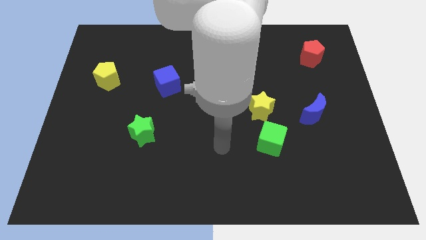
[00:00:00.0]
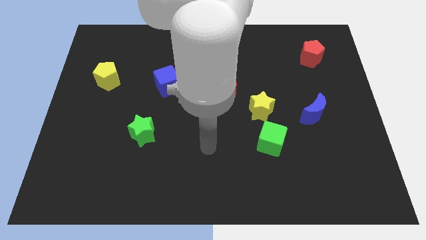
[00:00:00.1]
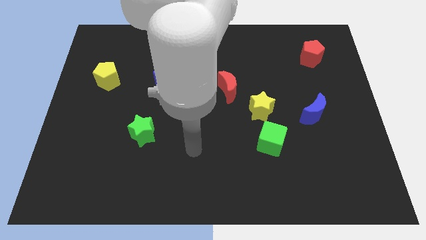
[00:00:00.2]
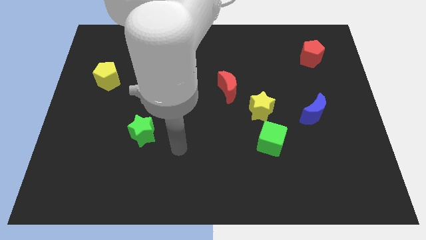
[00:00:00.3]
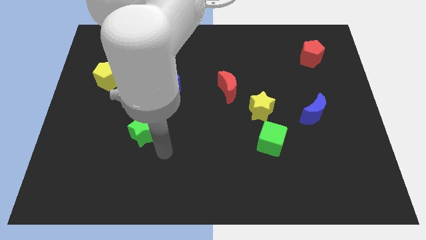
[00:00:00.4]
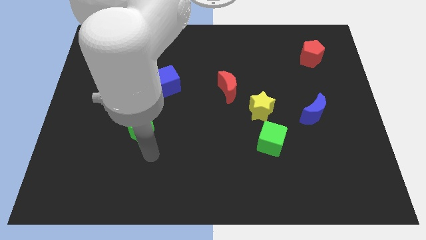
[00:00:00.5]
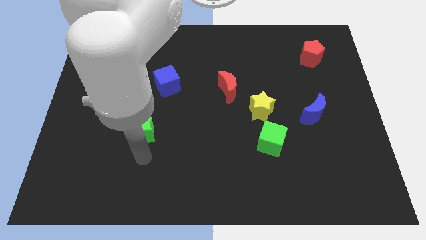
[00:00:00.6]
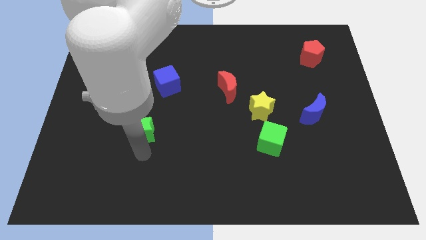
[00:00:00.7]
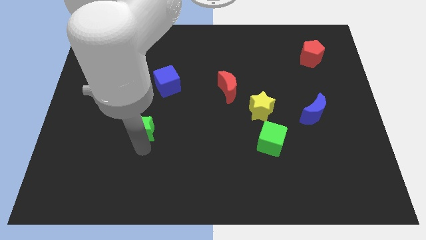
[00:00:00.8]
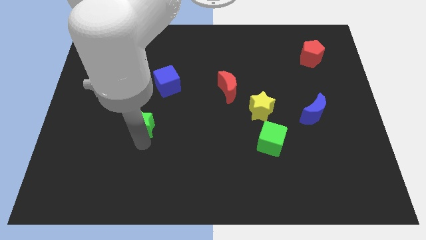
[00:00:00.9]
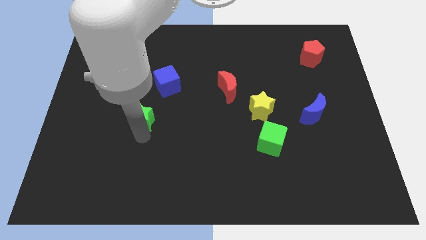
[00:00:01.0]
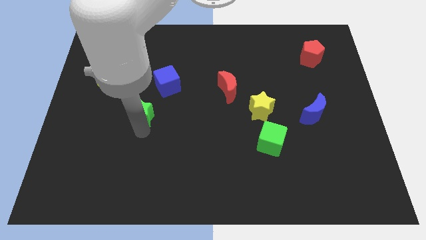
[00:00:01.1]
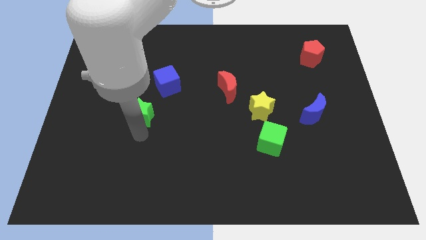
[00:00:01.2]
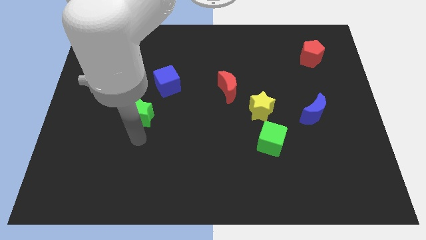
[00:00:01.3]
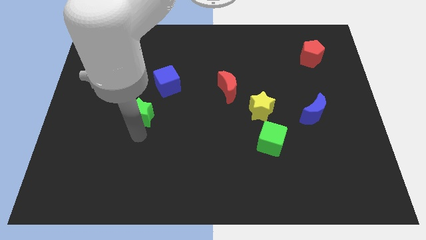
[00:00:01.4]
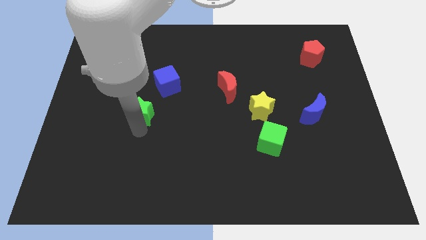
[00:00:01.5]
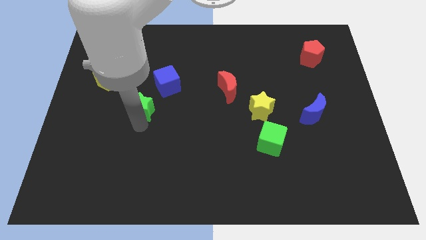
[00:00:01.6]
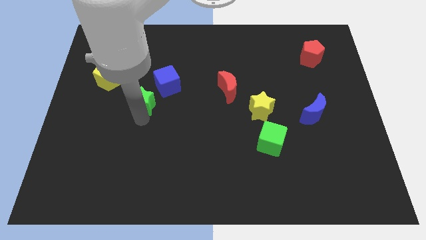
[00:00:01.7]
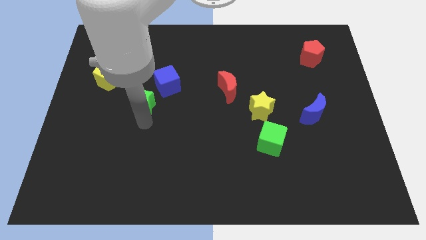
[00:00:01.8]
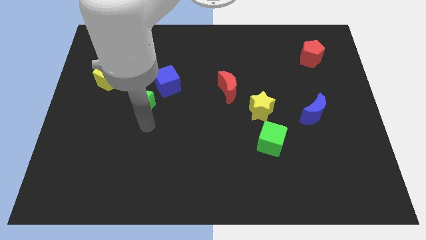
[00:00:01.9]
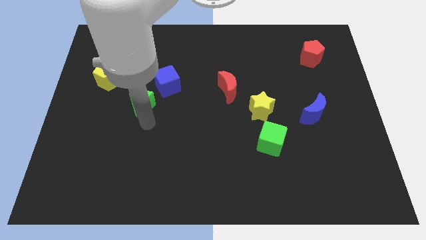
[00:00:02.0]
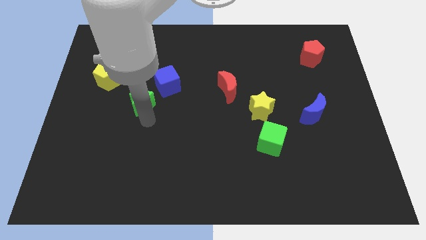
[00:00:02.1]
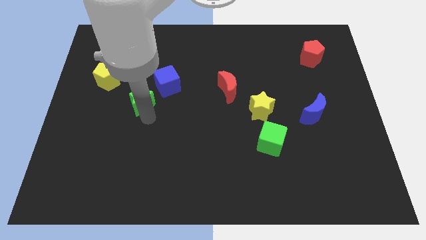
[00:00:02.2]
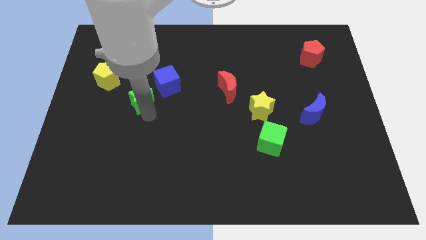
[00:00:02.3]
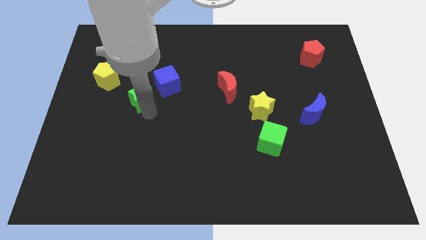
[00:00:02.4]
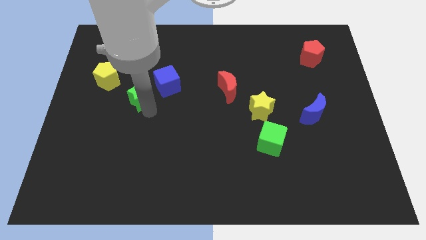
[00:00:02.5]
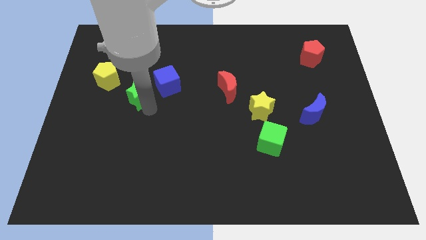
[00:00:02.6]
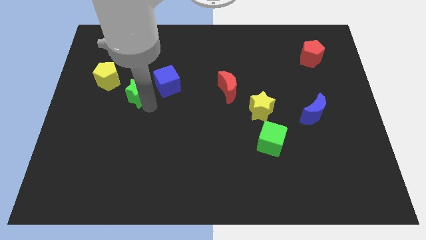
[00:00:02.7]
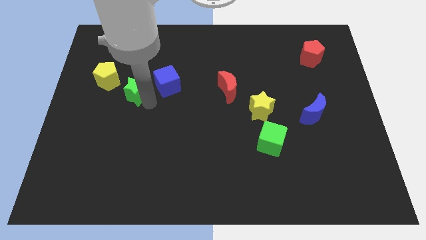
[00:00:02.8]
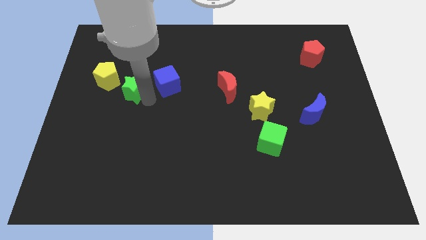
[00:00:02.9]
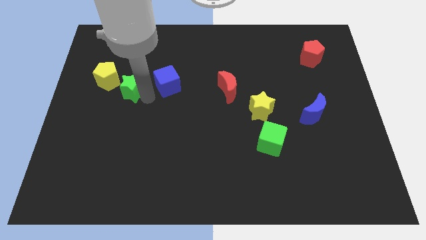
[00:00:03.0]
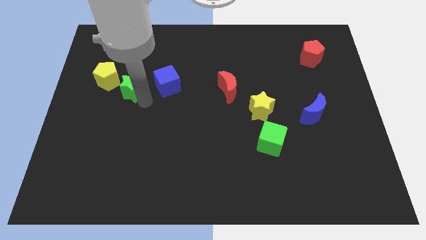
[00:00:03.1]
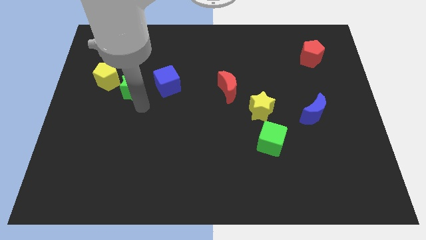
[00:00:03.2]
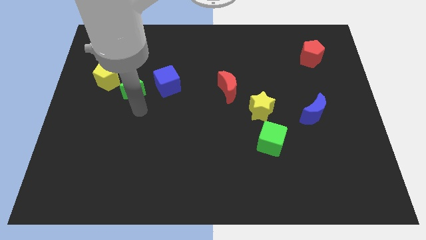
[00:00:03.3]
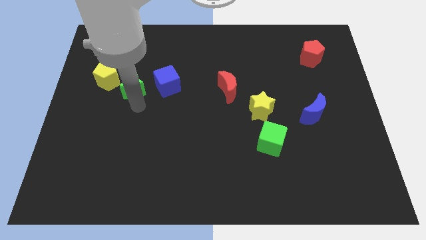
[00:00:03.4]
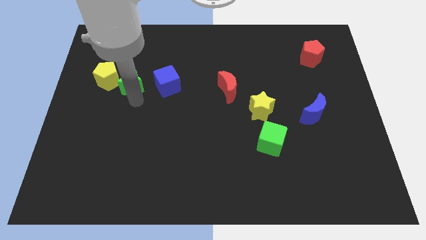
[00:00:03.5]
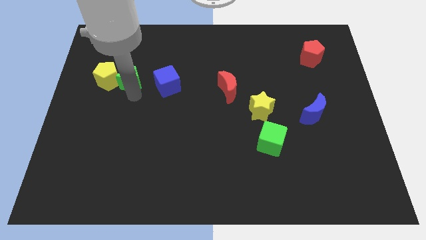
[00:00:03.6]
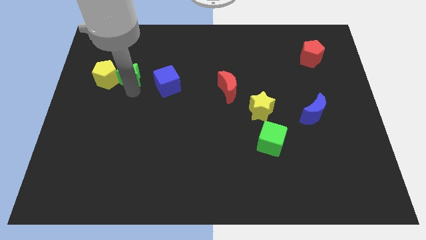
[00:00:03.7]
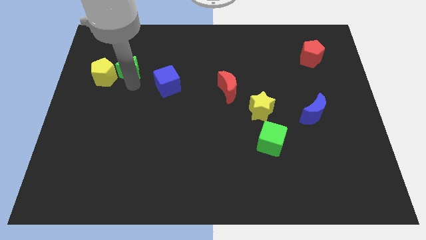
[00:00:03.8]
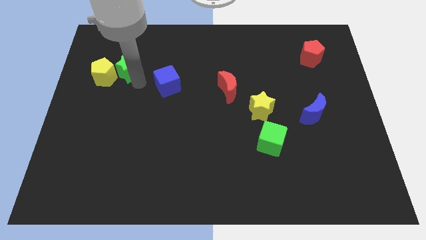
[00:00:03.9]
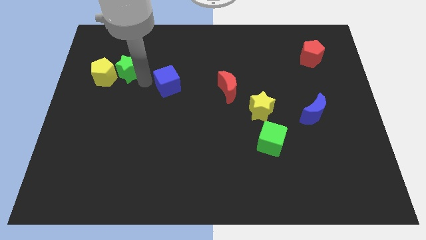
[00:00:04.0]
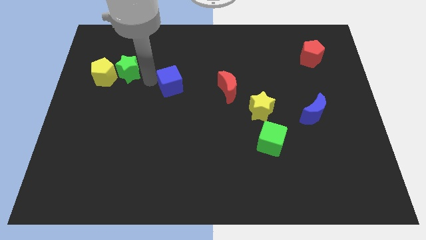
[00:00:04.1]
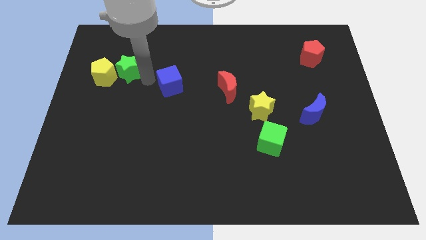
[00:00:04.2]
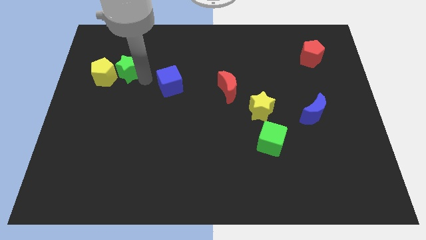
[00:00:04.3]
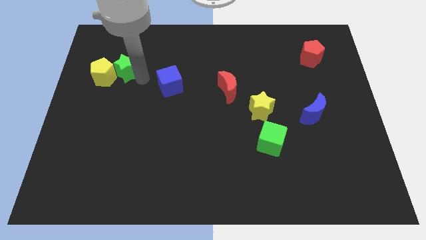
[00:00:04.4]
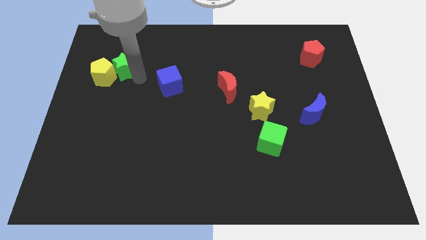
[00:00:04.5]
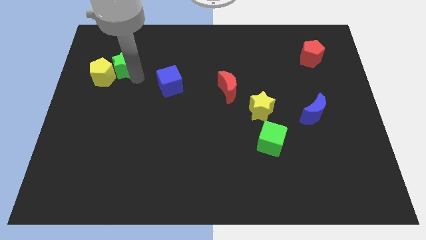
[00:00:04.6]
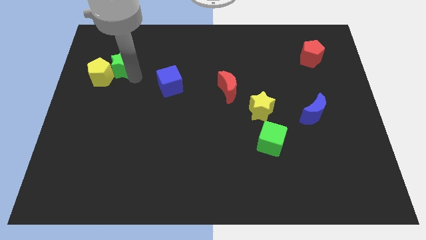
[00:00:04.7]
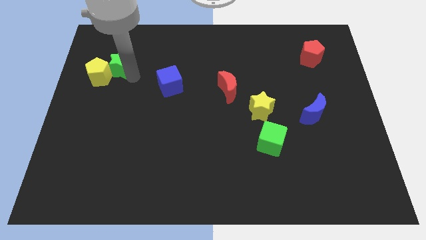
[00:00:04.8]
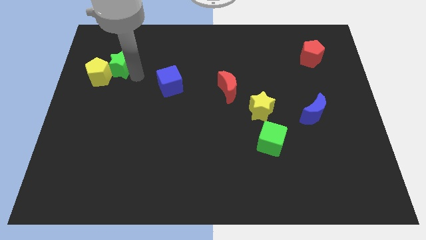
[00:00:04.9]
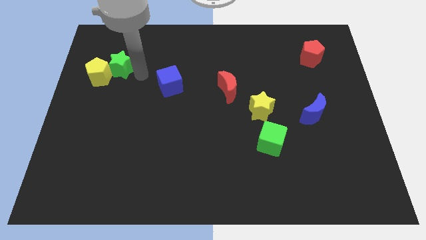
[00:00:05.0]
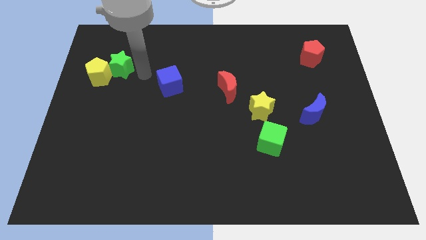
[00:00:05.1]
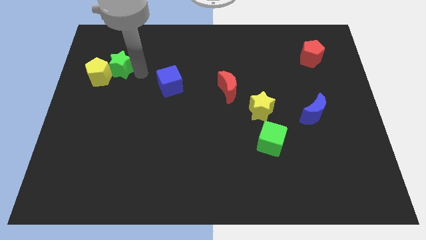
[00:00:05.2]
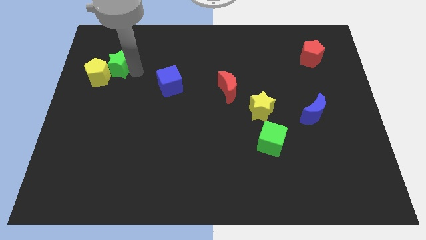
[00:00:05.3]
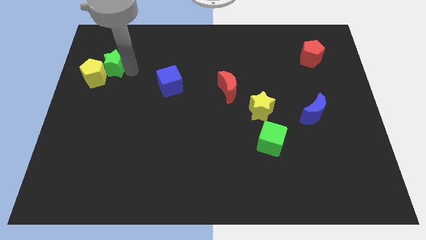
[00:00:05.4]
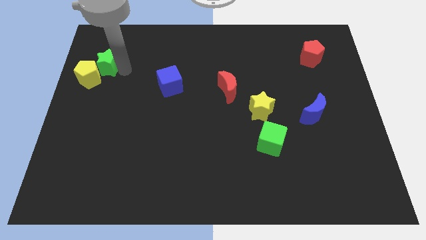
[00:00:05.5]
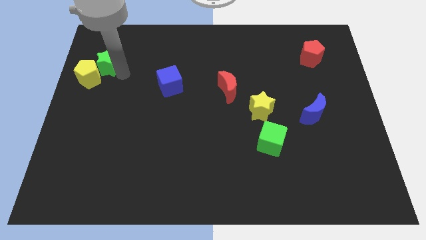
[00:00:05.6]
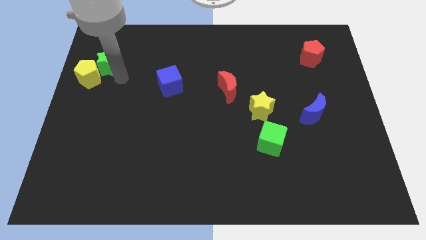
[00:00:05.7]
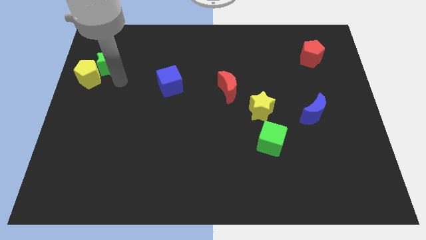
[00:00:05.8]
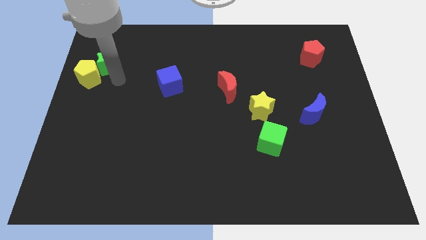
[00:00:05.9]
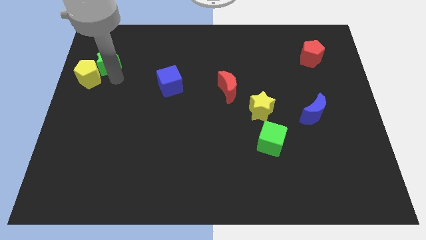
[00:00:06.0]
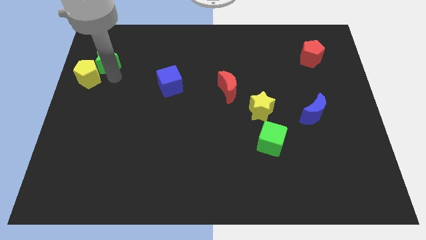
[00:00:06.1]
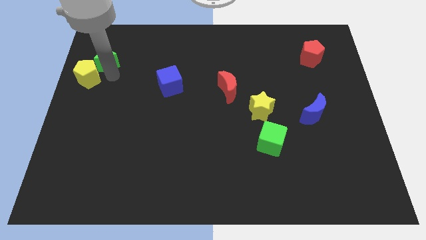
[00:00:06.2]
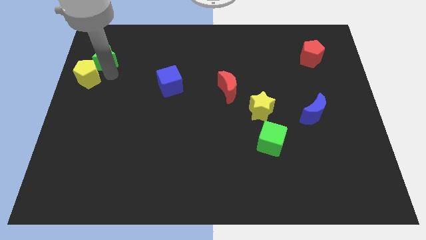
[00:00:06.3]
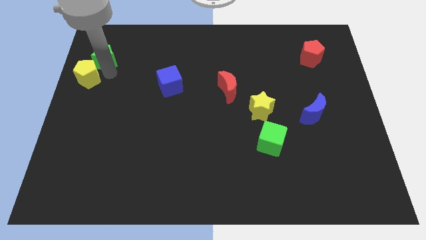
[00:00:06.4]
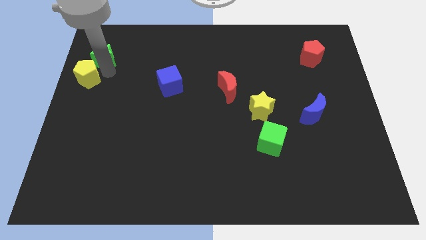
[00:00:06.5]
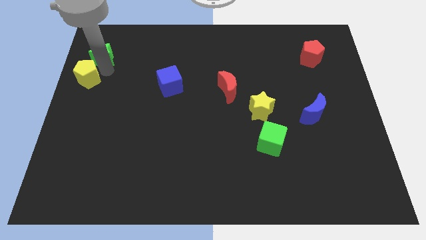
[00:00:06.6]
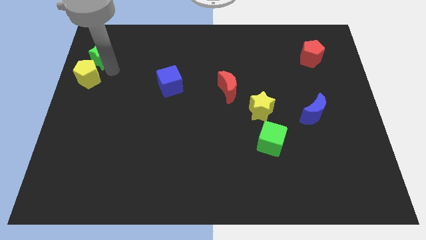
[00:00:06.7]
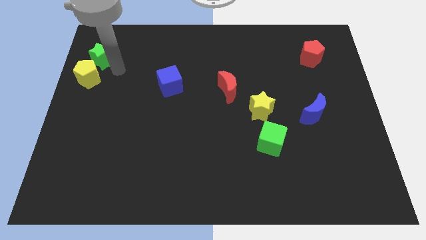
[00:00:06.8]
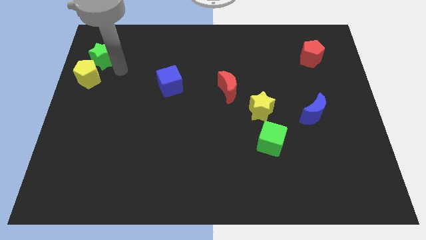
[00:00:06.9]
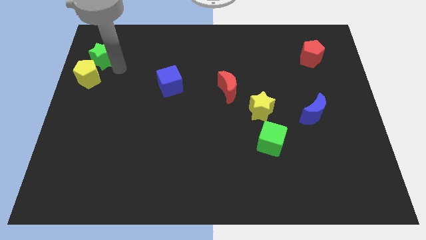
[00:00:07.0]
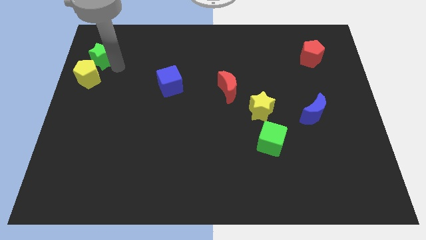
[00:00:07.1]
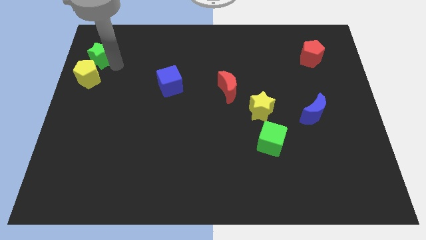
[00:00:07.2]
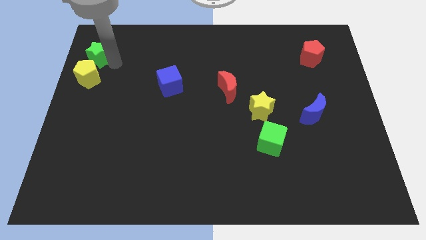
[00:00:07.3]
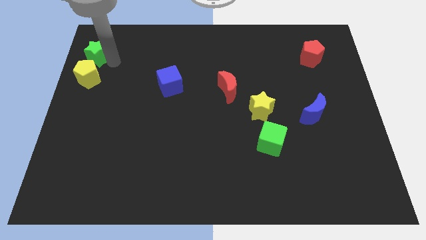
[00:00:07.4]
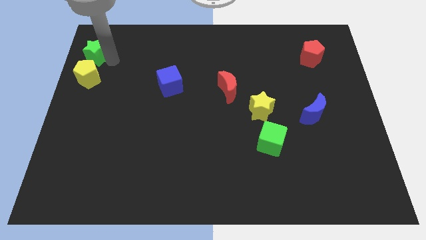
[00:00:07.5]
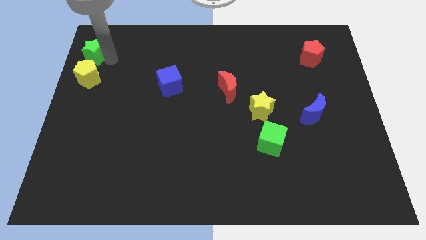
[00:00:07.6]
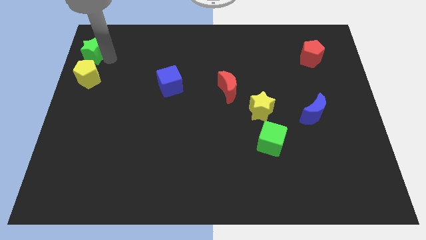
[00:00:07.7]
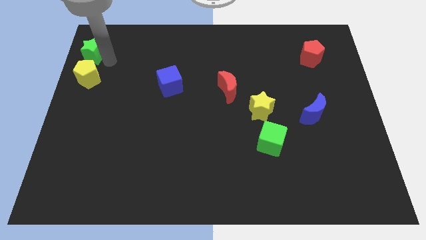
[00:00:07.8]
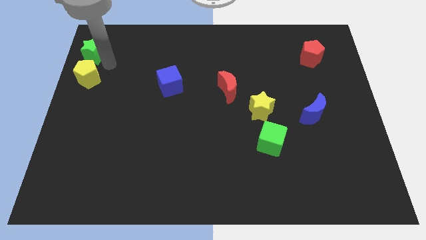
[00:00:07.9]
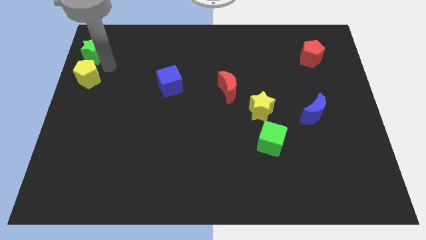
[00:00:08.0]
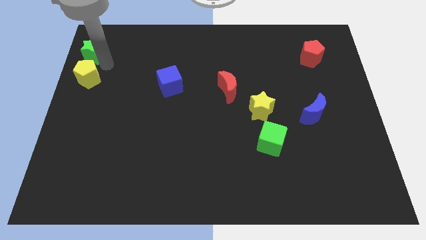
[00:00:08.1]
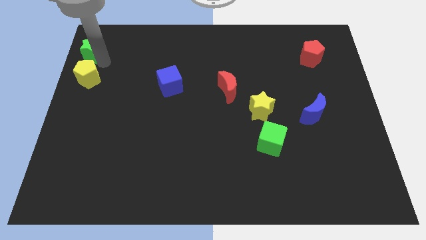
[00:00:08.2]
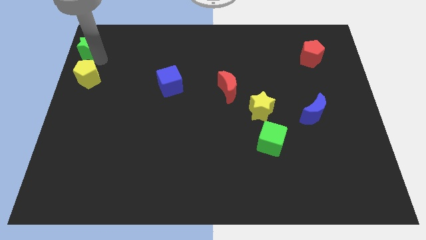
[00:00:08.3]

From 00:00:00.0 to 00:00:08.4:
move the green star to the top left of the board
